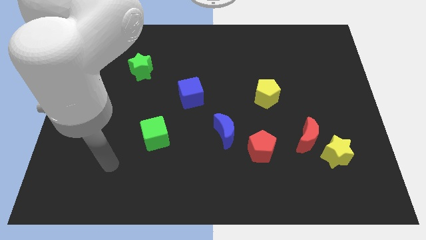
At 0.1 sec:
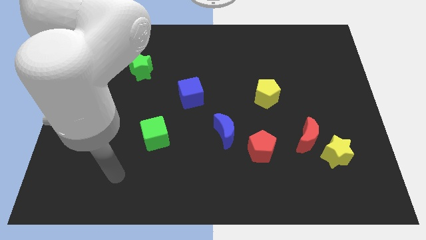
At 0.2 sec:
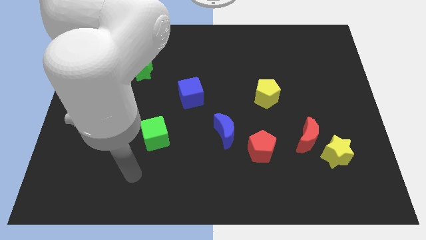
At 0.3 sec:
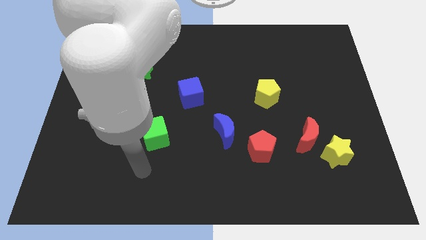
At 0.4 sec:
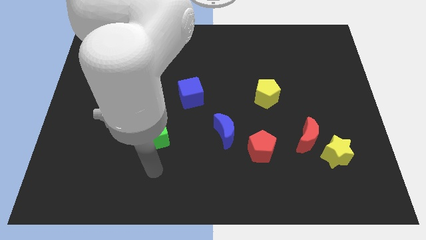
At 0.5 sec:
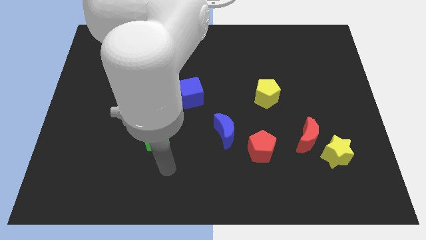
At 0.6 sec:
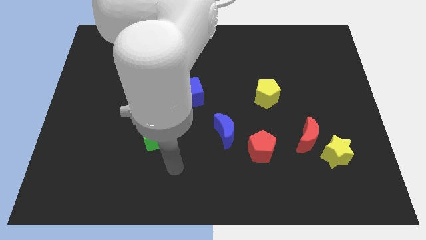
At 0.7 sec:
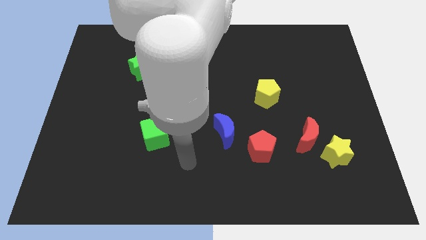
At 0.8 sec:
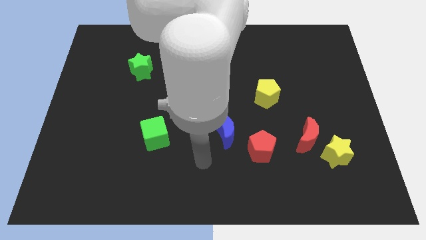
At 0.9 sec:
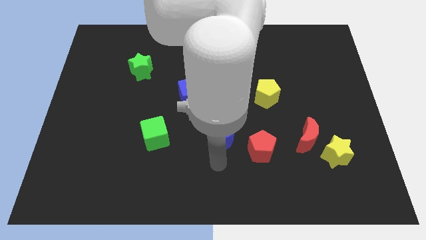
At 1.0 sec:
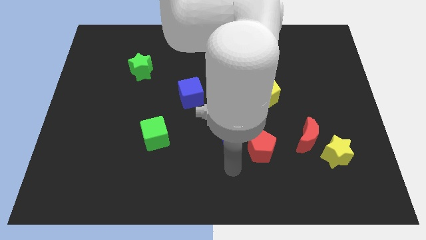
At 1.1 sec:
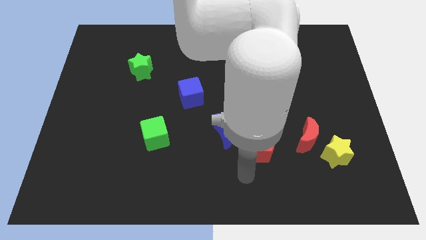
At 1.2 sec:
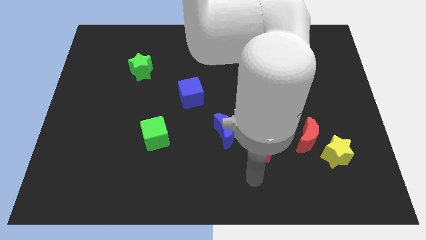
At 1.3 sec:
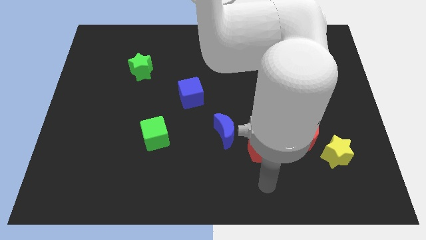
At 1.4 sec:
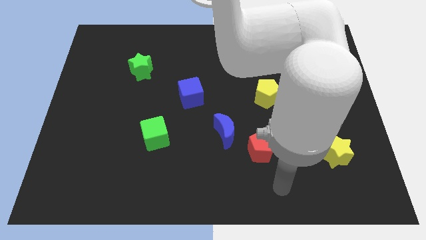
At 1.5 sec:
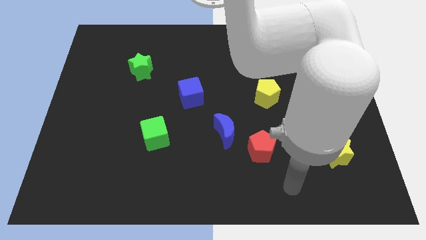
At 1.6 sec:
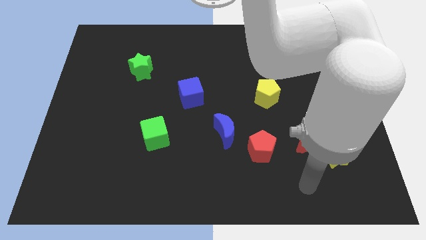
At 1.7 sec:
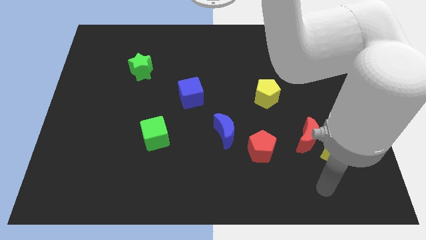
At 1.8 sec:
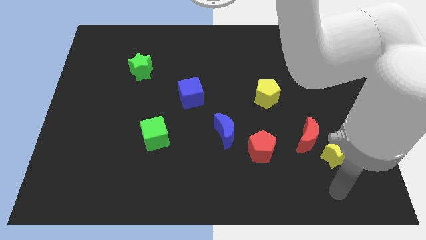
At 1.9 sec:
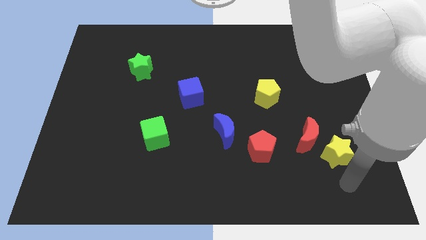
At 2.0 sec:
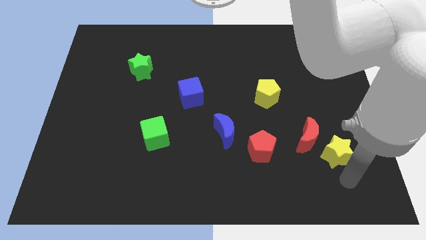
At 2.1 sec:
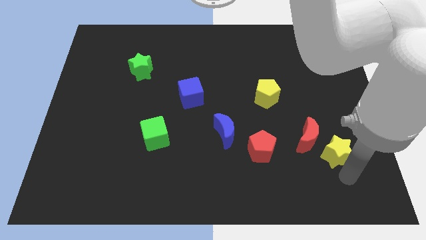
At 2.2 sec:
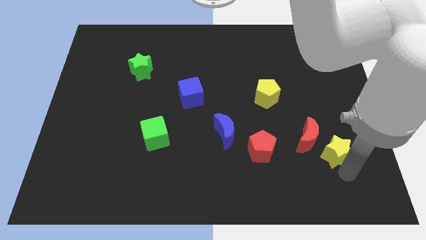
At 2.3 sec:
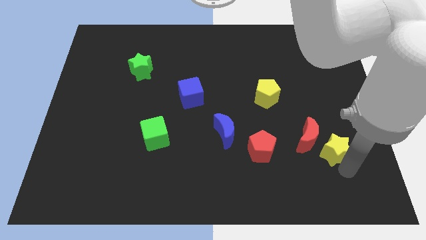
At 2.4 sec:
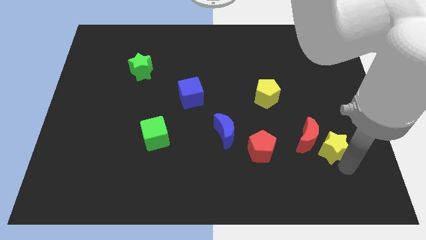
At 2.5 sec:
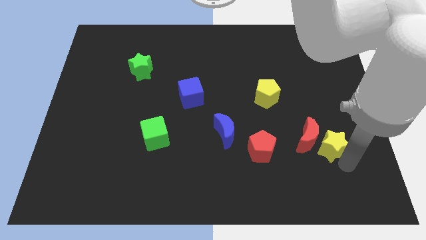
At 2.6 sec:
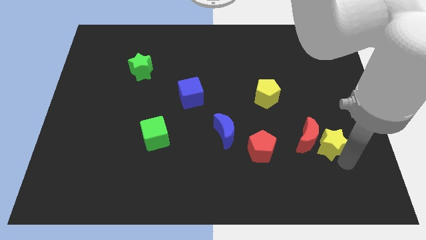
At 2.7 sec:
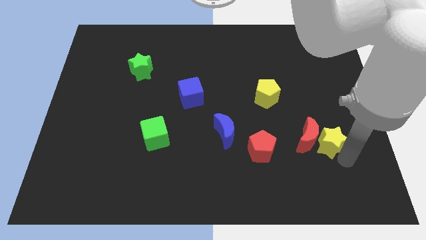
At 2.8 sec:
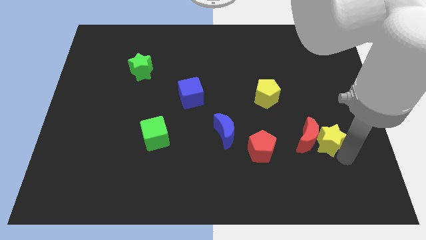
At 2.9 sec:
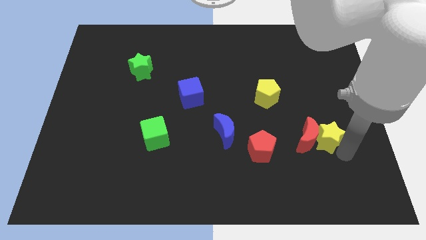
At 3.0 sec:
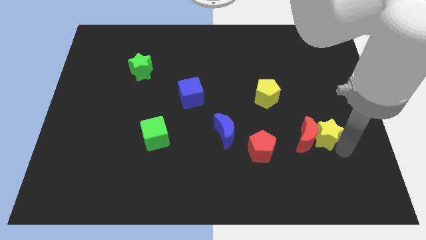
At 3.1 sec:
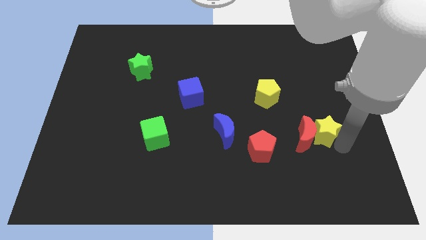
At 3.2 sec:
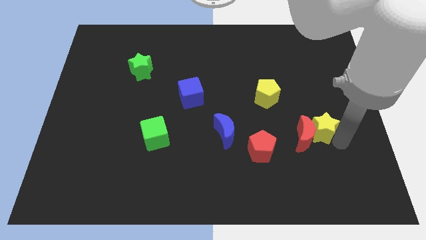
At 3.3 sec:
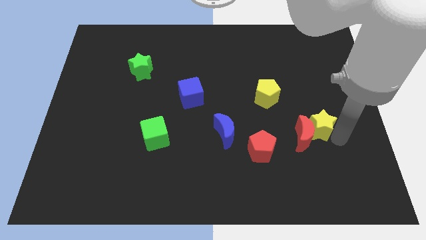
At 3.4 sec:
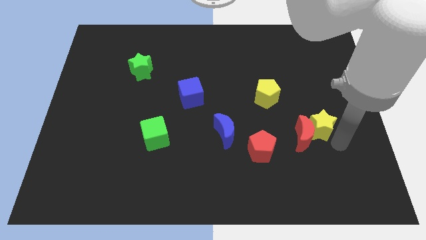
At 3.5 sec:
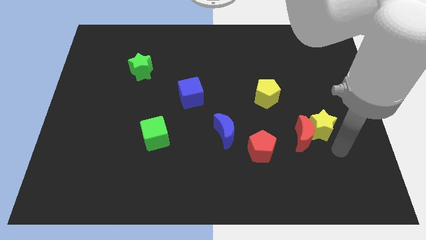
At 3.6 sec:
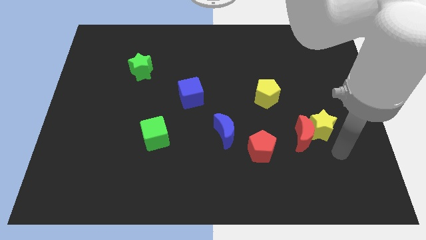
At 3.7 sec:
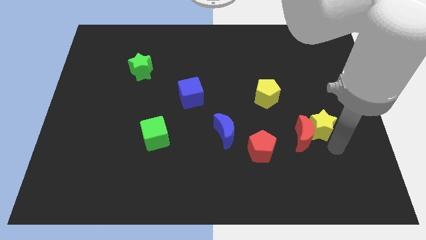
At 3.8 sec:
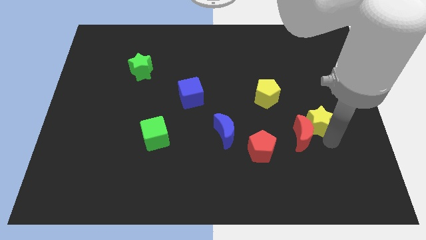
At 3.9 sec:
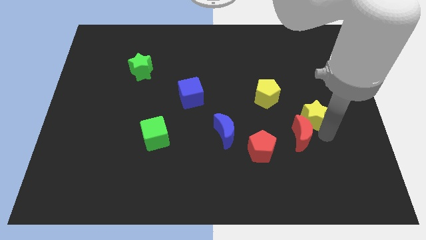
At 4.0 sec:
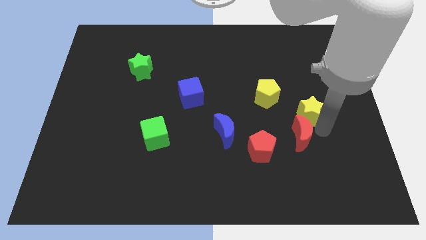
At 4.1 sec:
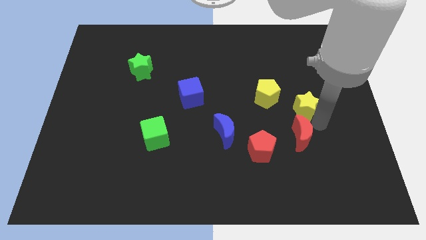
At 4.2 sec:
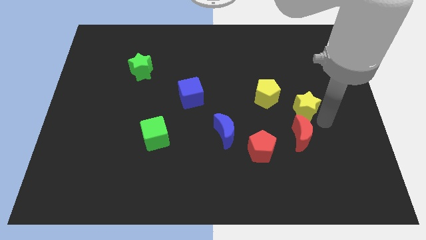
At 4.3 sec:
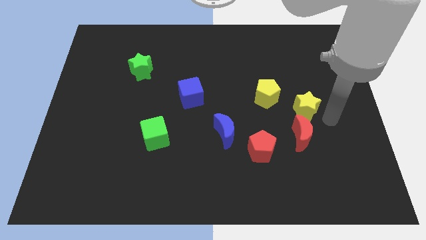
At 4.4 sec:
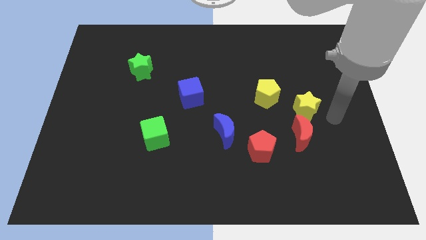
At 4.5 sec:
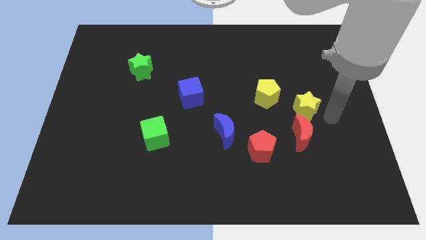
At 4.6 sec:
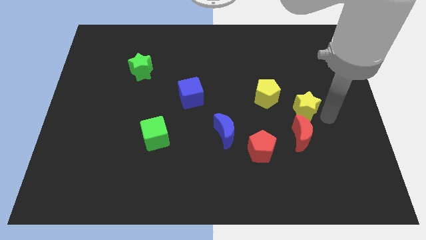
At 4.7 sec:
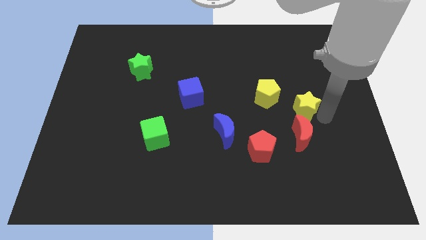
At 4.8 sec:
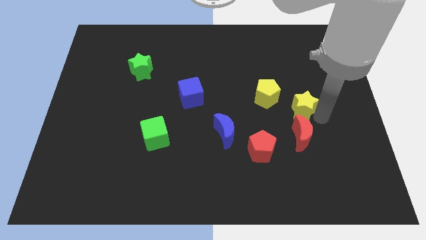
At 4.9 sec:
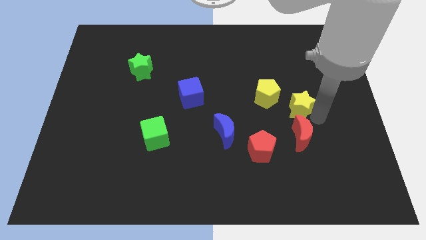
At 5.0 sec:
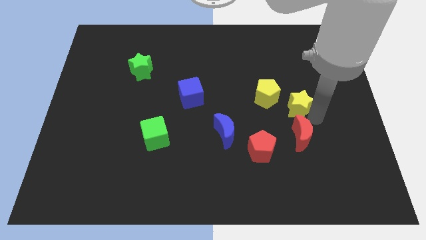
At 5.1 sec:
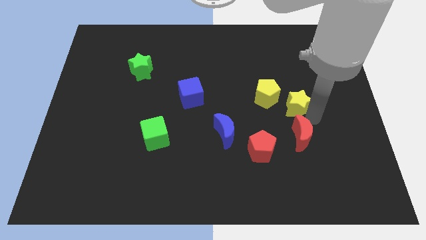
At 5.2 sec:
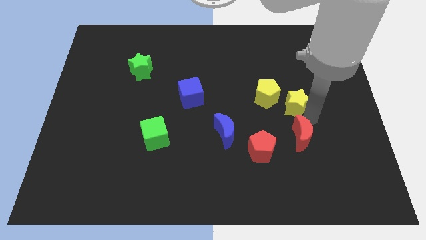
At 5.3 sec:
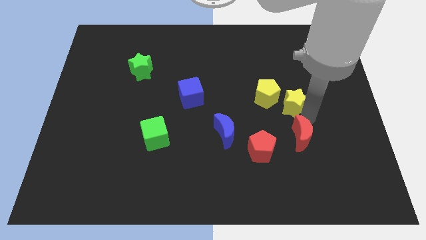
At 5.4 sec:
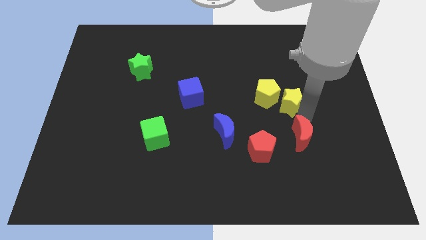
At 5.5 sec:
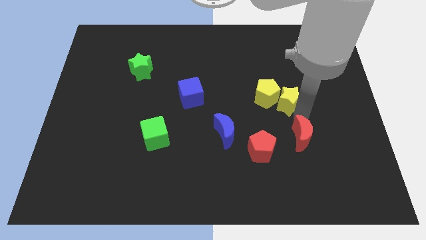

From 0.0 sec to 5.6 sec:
push the yellow star to the yellow pentagon

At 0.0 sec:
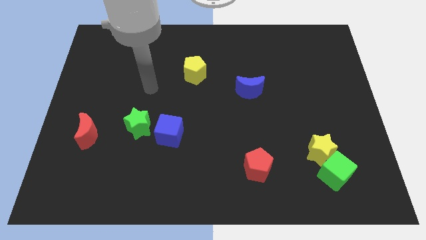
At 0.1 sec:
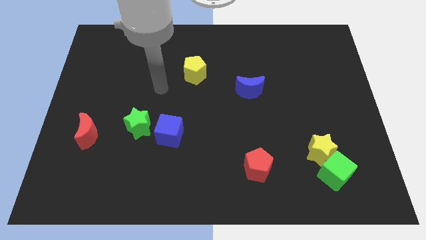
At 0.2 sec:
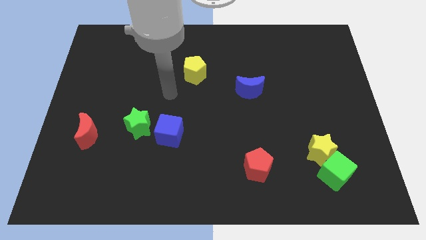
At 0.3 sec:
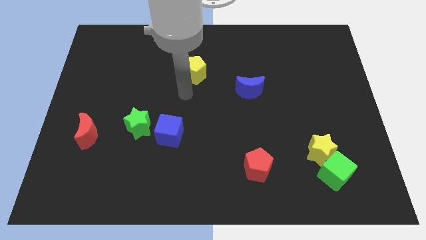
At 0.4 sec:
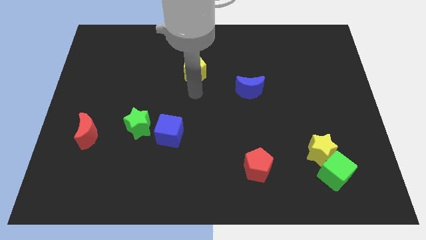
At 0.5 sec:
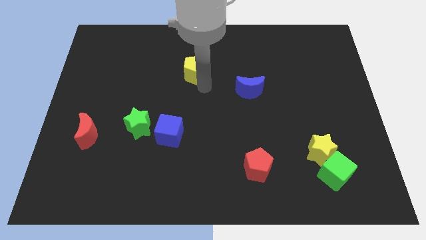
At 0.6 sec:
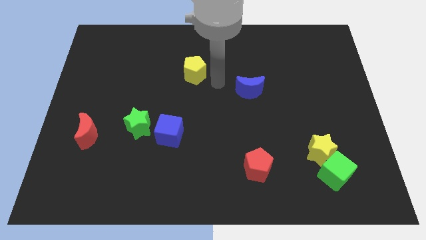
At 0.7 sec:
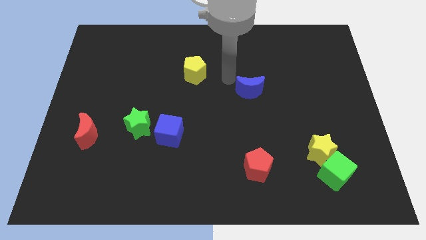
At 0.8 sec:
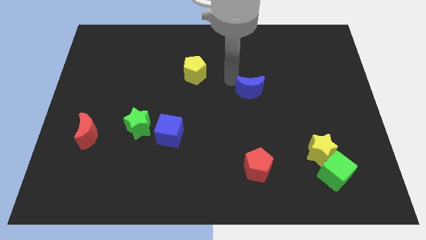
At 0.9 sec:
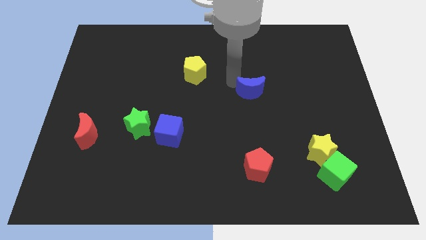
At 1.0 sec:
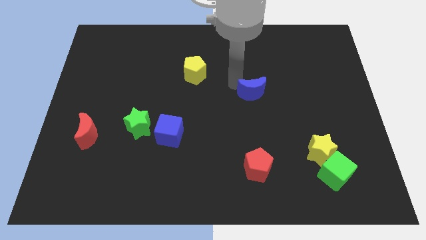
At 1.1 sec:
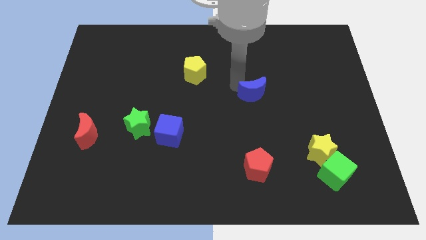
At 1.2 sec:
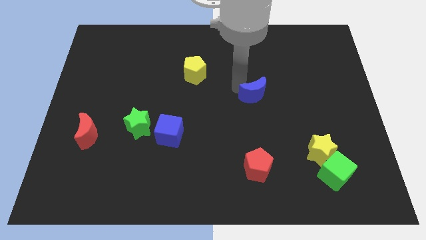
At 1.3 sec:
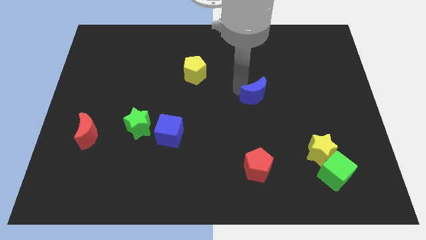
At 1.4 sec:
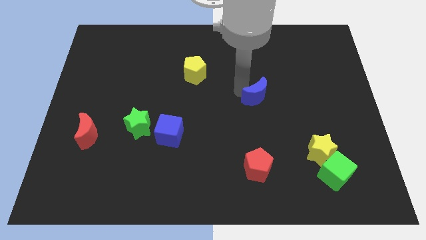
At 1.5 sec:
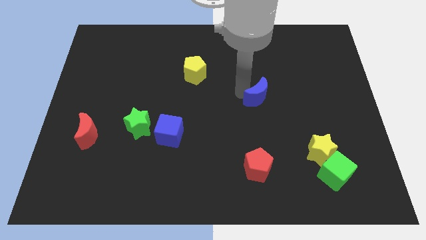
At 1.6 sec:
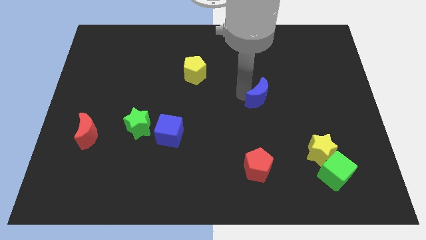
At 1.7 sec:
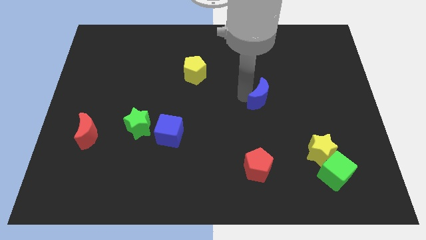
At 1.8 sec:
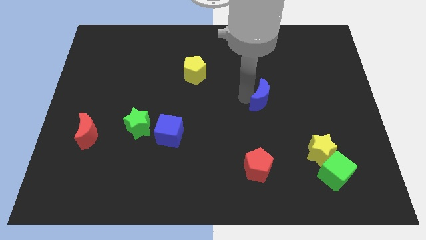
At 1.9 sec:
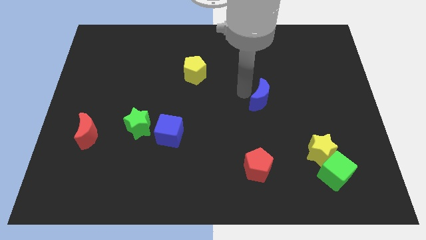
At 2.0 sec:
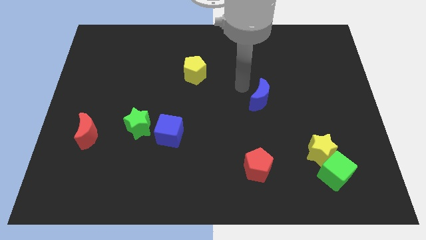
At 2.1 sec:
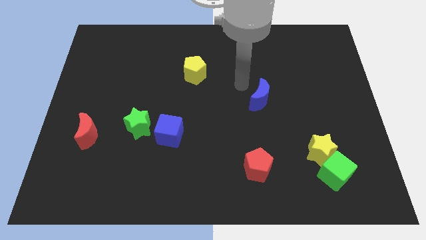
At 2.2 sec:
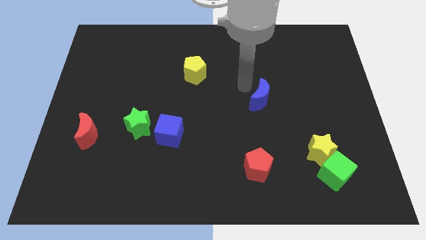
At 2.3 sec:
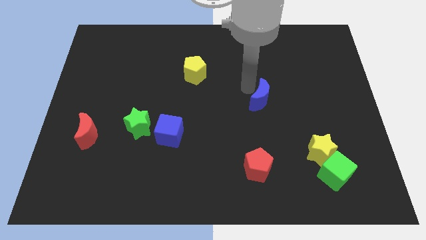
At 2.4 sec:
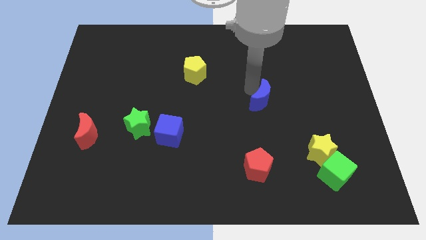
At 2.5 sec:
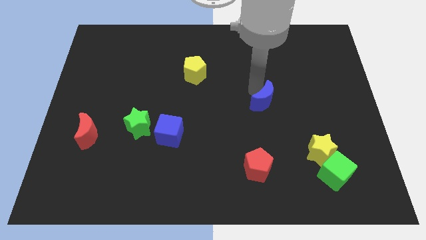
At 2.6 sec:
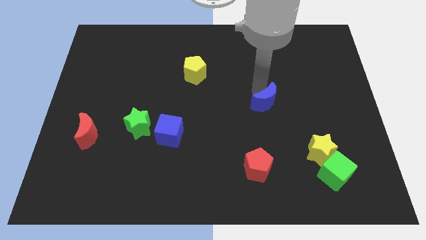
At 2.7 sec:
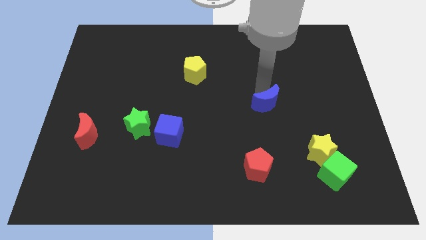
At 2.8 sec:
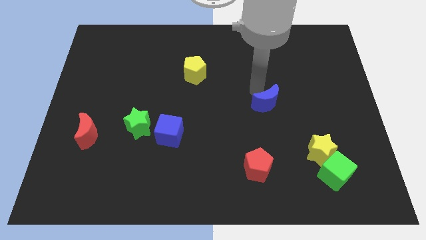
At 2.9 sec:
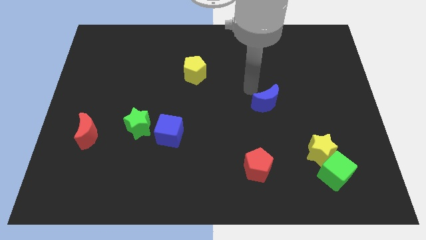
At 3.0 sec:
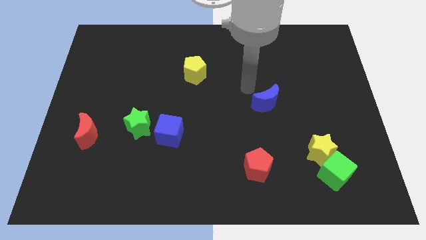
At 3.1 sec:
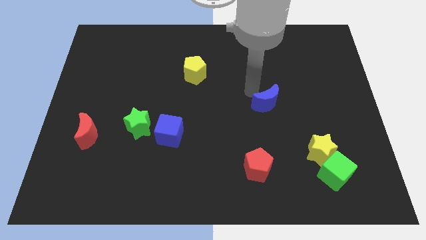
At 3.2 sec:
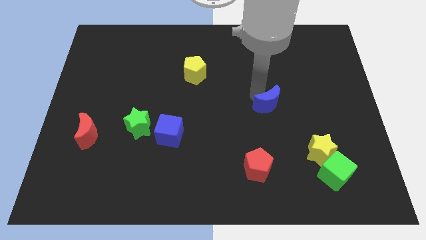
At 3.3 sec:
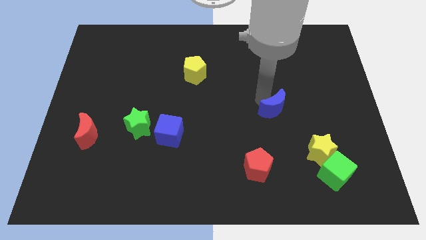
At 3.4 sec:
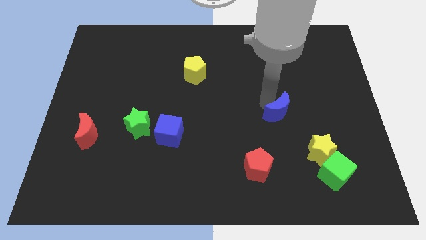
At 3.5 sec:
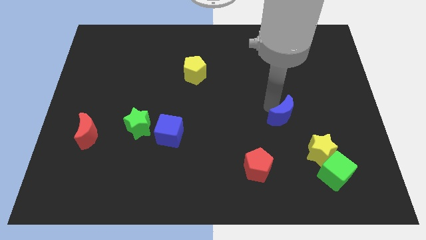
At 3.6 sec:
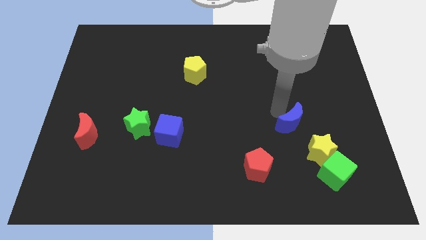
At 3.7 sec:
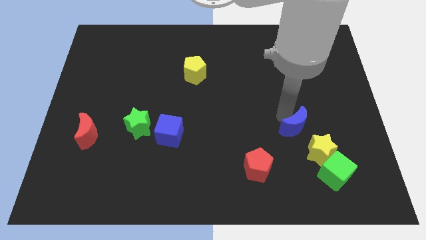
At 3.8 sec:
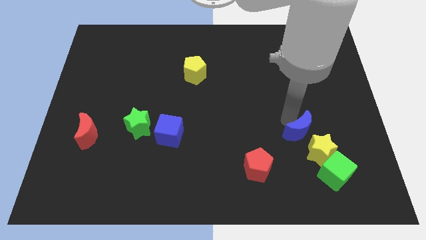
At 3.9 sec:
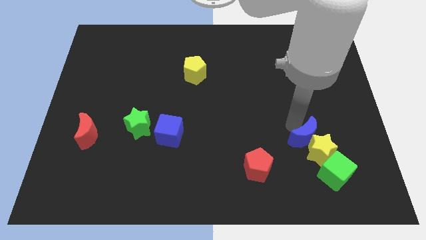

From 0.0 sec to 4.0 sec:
slide the blue moon close to the yellow star
